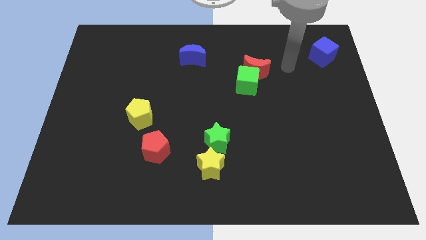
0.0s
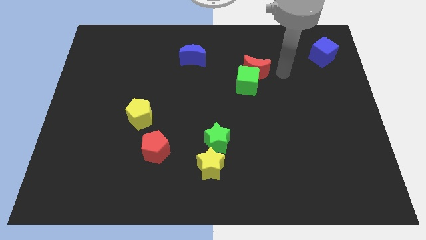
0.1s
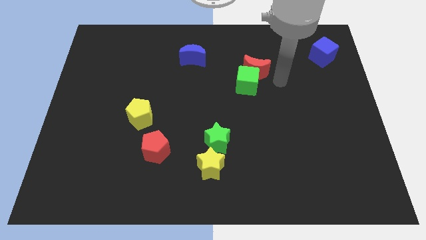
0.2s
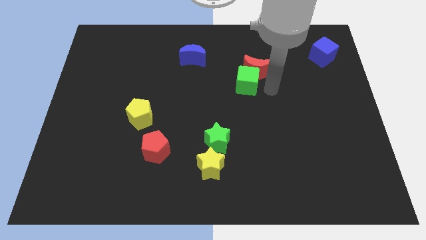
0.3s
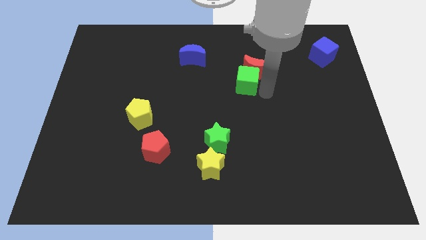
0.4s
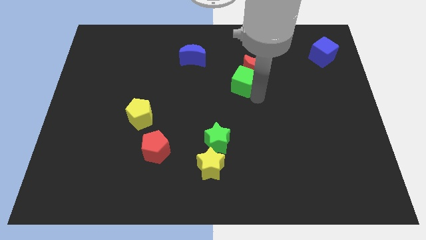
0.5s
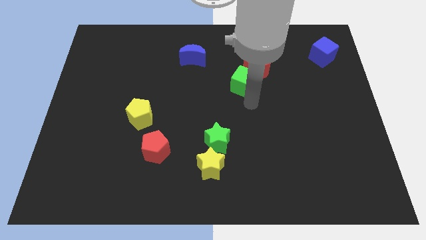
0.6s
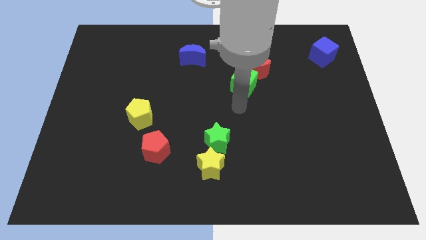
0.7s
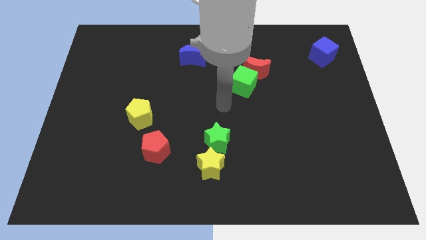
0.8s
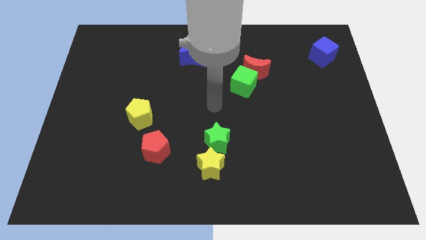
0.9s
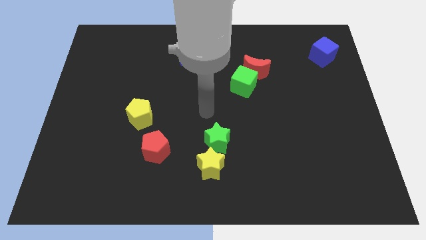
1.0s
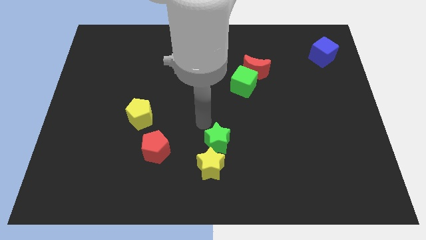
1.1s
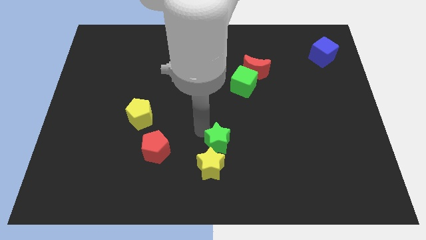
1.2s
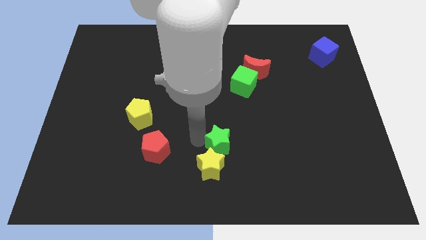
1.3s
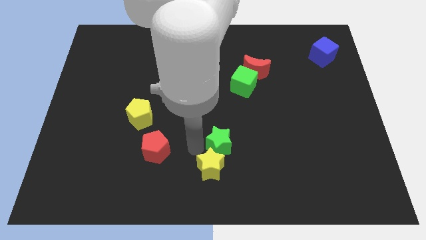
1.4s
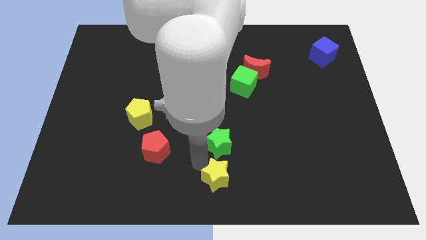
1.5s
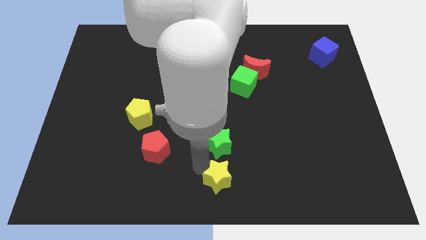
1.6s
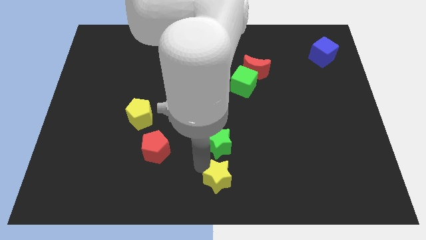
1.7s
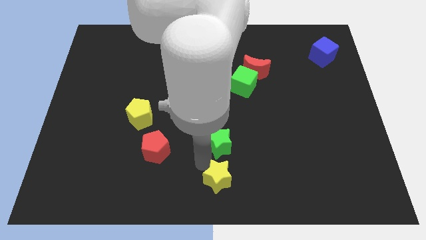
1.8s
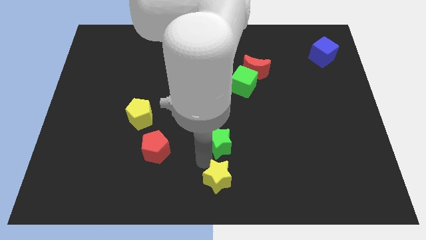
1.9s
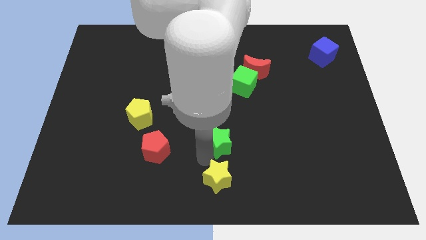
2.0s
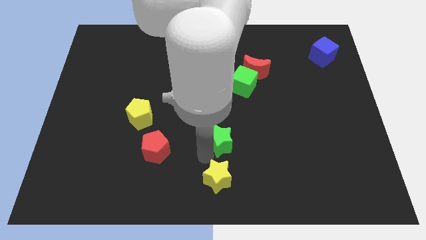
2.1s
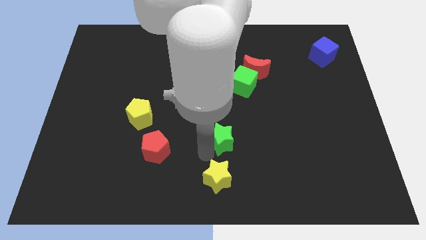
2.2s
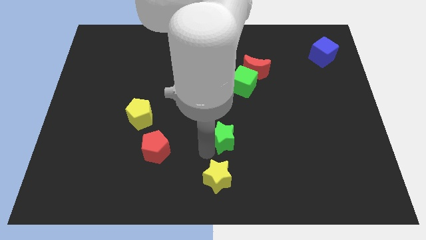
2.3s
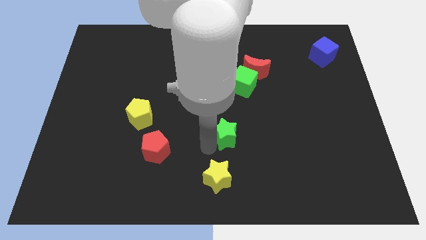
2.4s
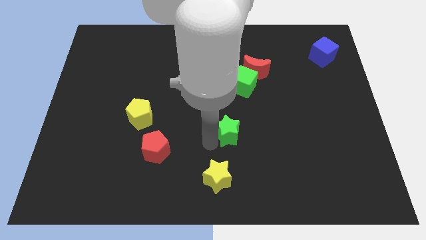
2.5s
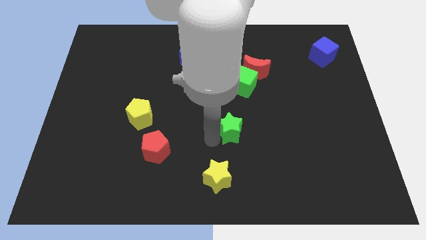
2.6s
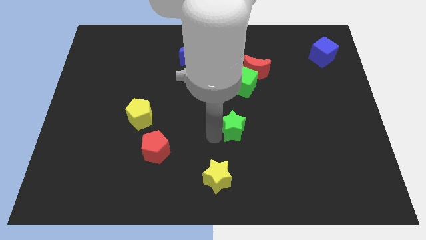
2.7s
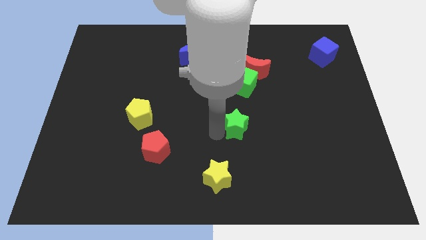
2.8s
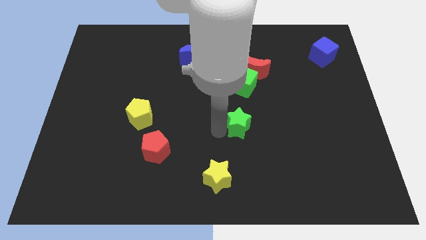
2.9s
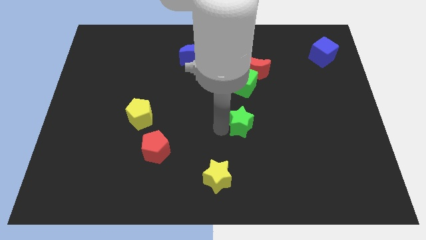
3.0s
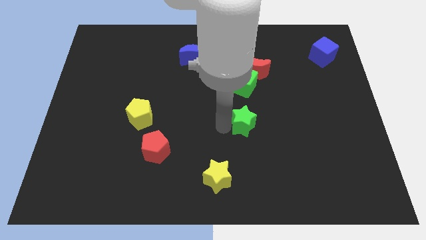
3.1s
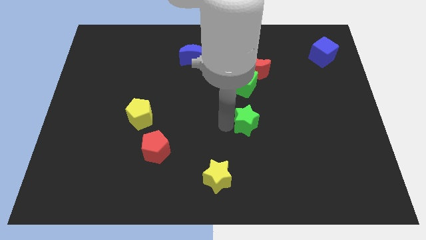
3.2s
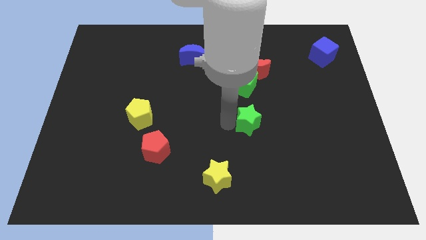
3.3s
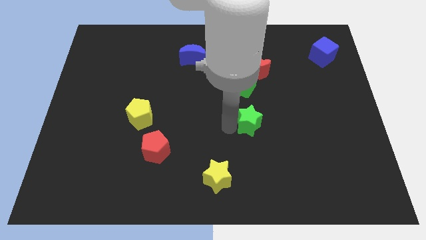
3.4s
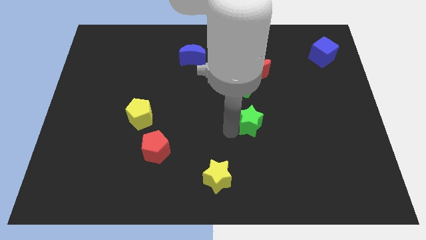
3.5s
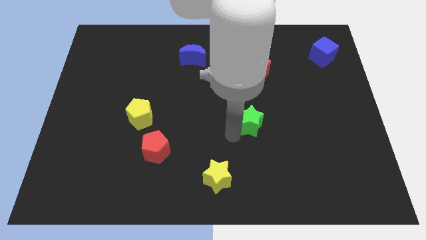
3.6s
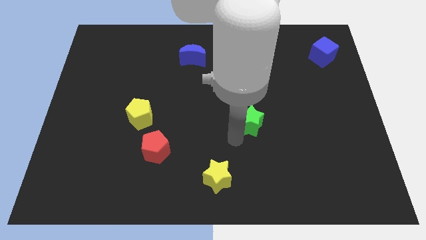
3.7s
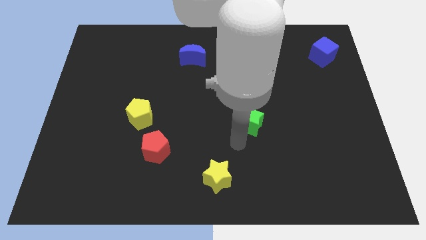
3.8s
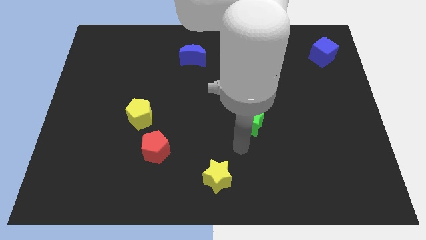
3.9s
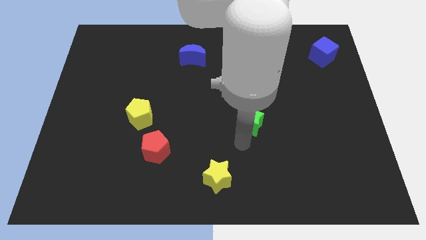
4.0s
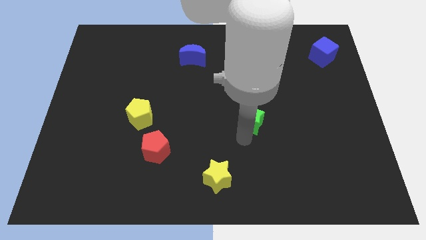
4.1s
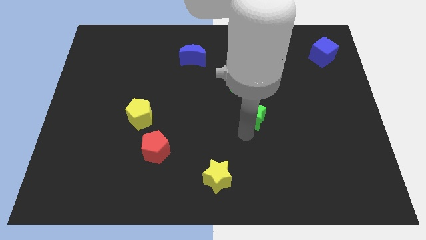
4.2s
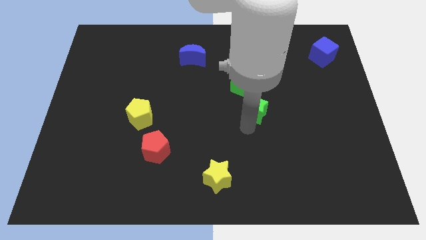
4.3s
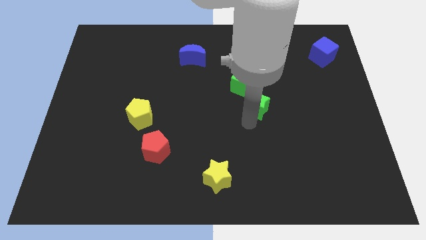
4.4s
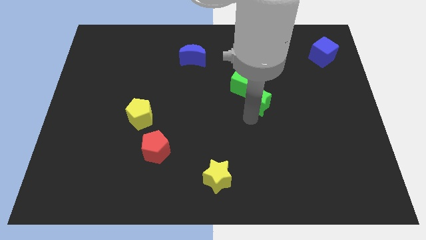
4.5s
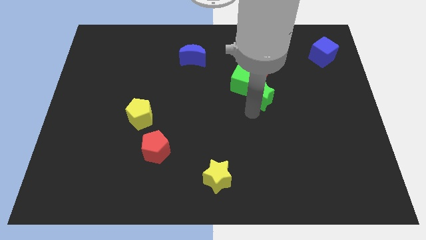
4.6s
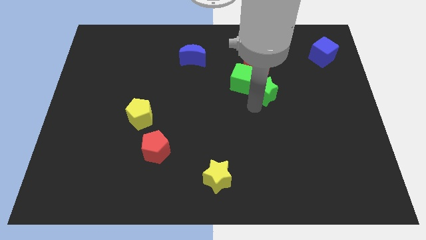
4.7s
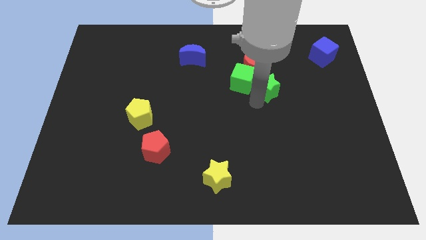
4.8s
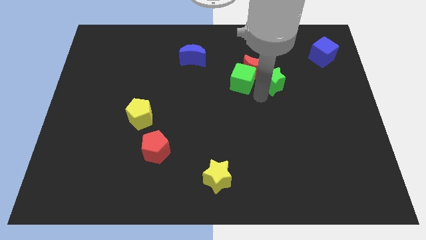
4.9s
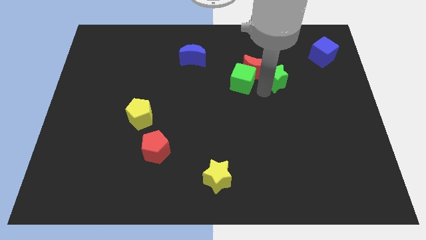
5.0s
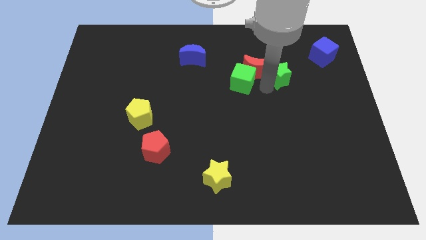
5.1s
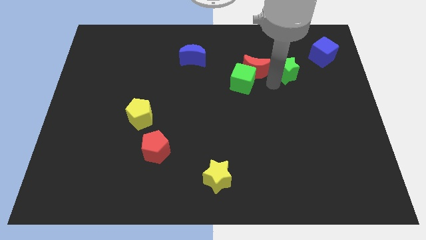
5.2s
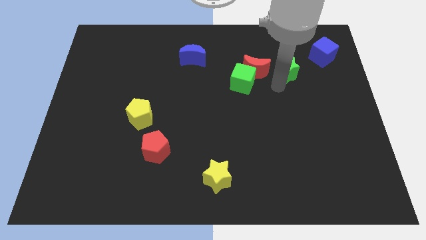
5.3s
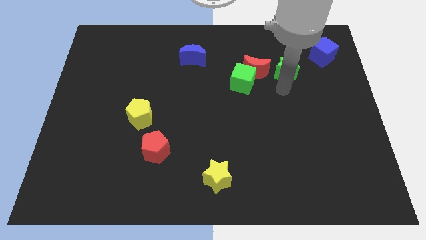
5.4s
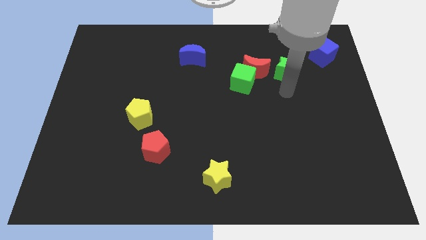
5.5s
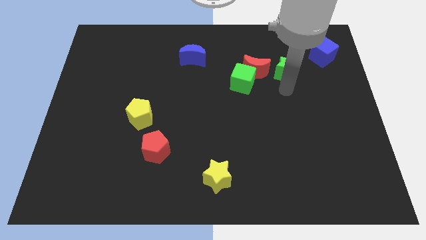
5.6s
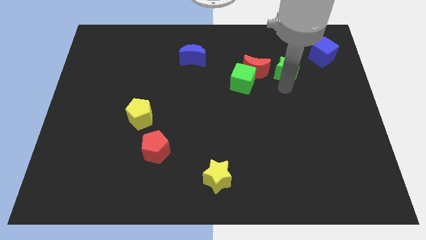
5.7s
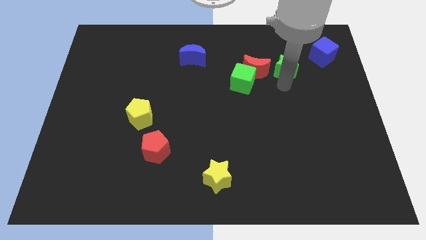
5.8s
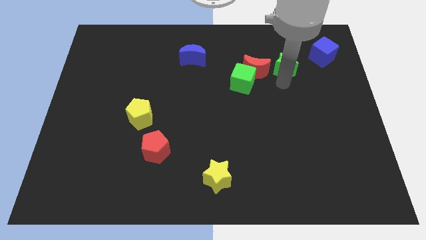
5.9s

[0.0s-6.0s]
slide the green star just left of the blue cube

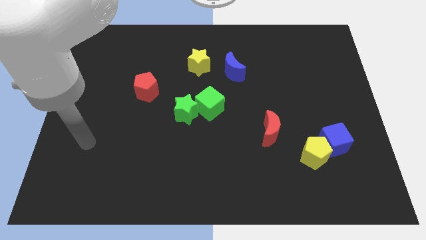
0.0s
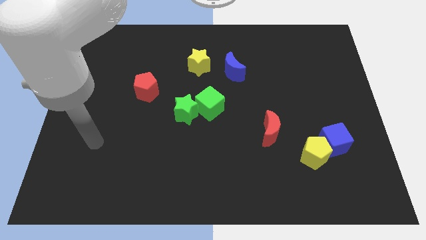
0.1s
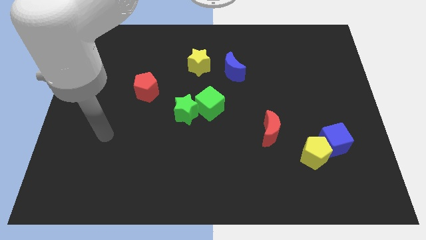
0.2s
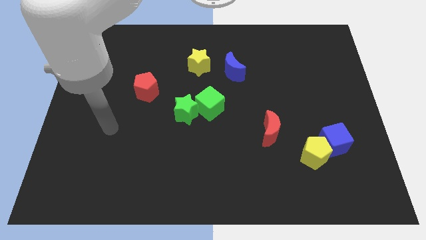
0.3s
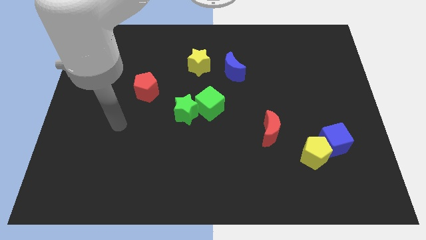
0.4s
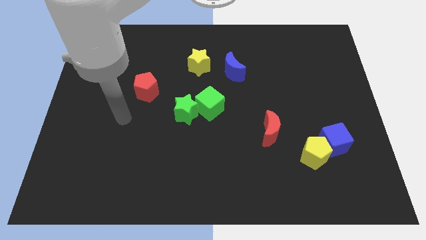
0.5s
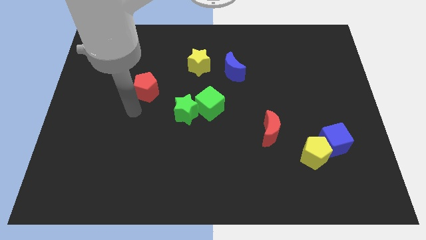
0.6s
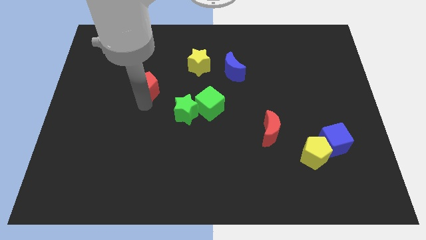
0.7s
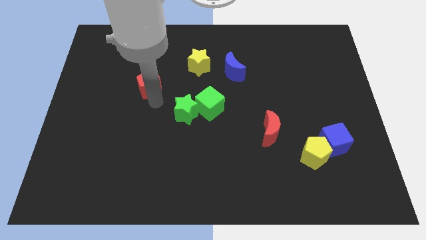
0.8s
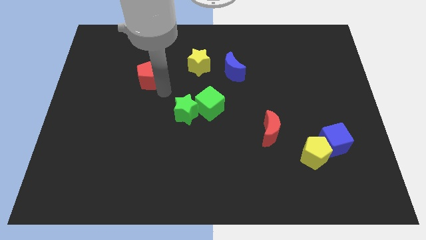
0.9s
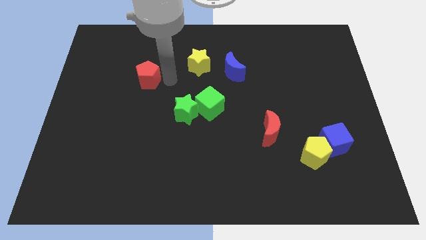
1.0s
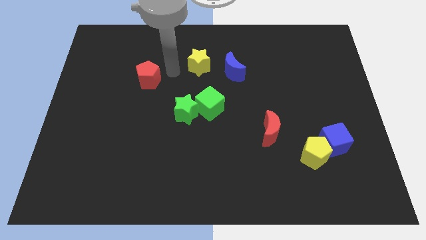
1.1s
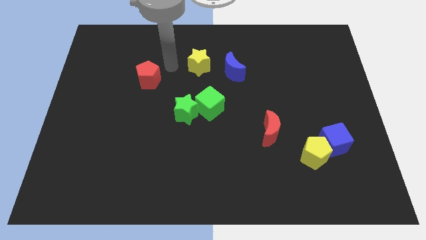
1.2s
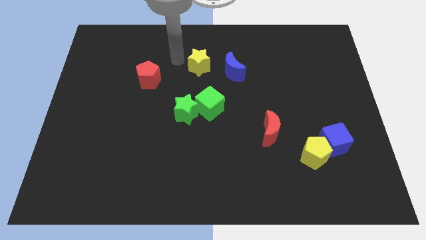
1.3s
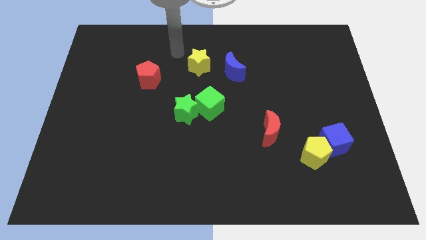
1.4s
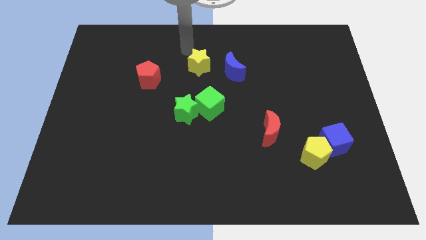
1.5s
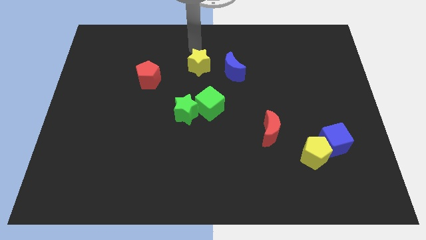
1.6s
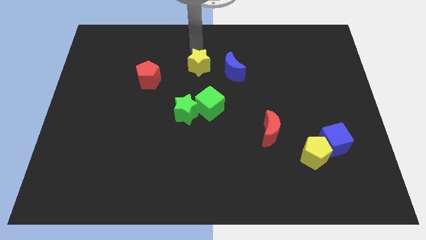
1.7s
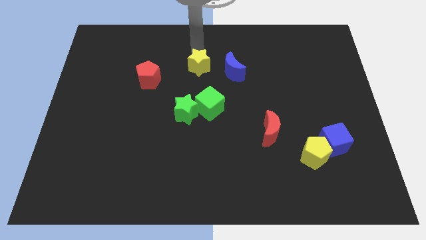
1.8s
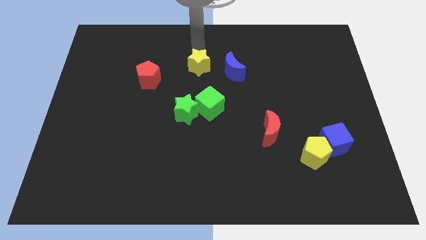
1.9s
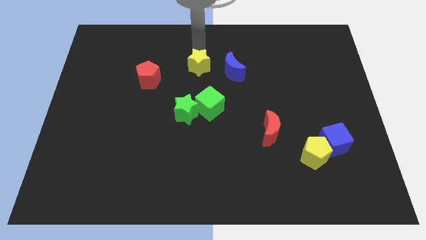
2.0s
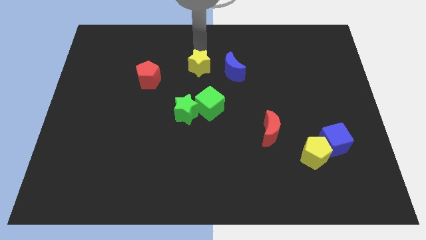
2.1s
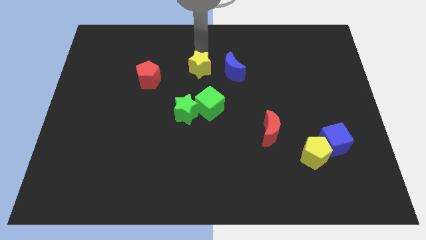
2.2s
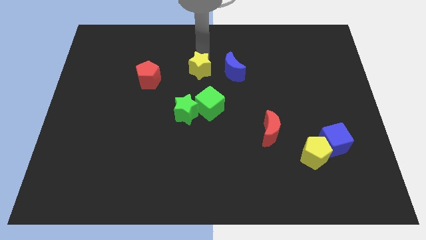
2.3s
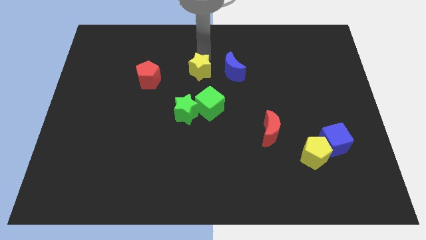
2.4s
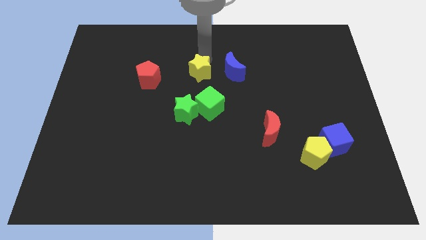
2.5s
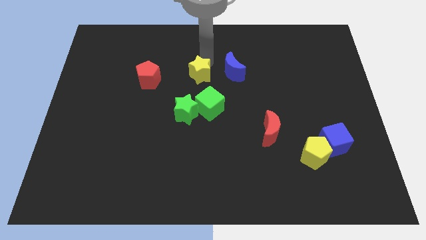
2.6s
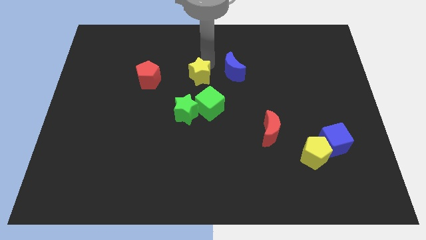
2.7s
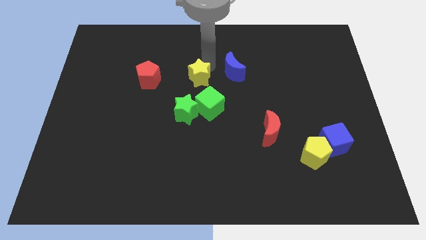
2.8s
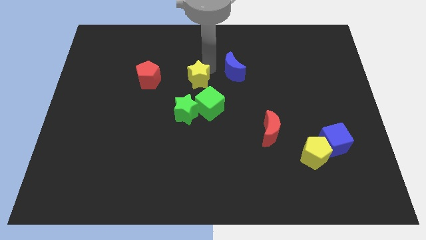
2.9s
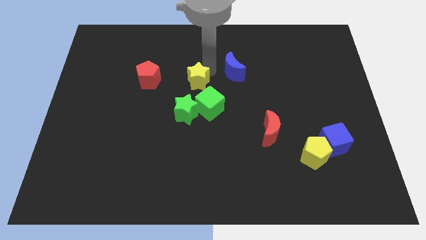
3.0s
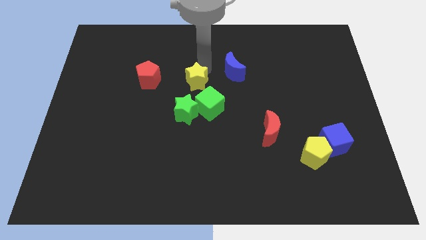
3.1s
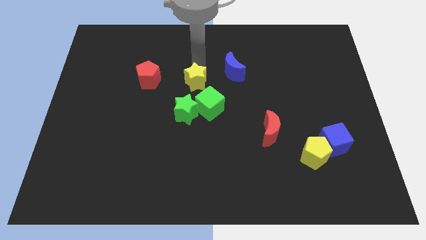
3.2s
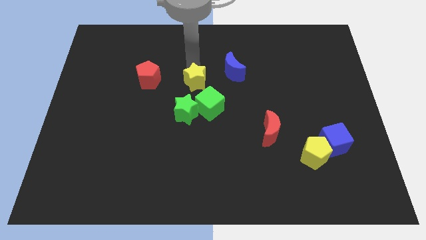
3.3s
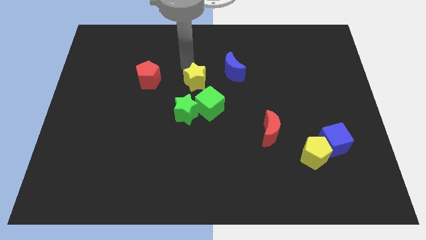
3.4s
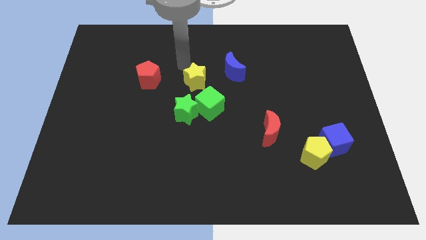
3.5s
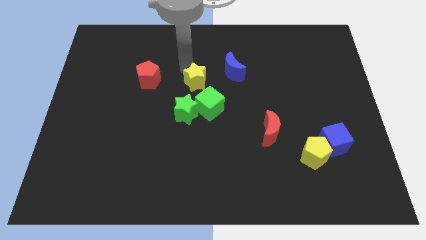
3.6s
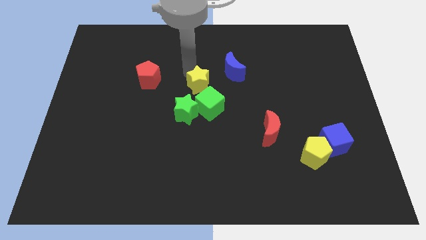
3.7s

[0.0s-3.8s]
push the yellow star to the top right side of the green star
